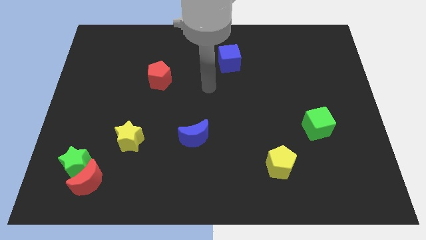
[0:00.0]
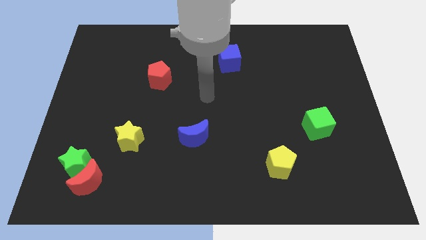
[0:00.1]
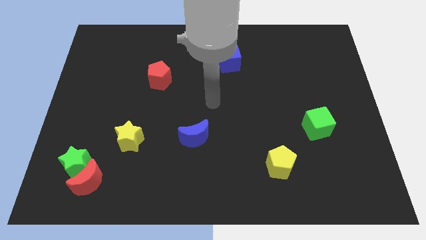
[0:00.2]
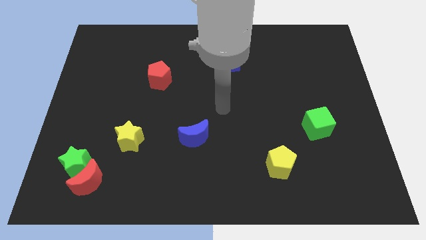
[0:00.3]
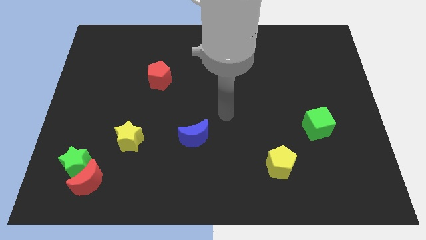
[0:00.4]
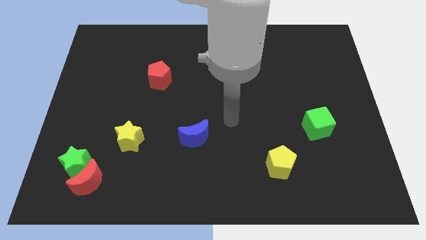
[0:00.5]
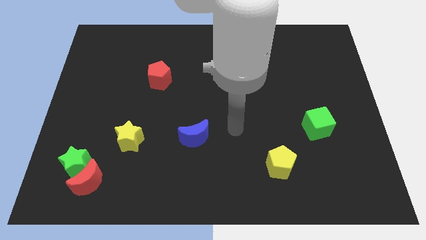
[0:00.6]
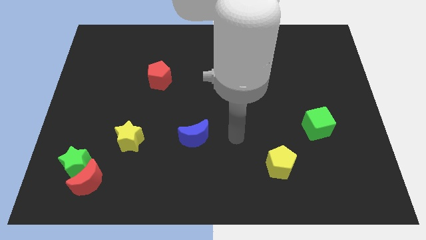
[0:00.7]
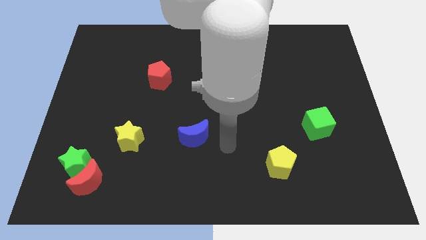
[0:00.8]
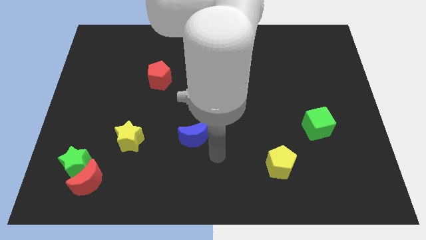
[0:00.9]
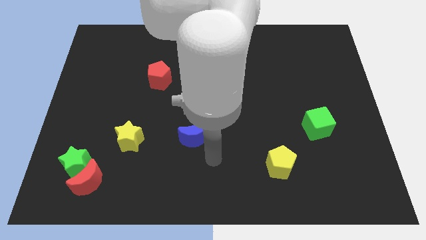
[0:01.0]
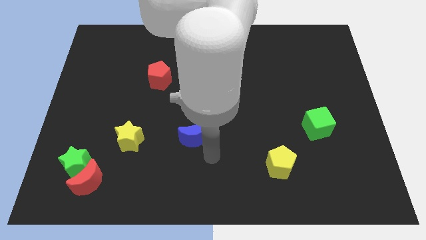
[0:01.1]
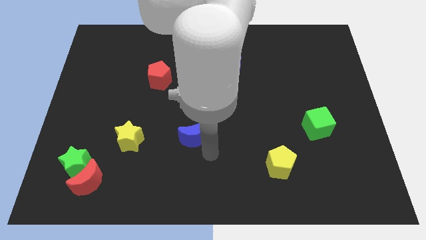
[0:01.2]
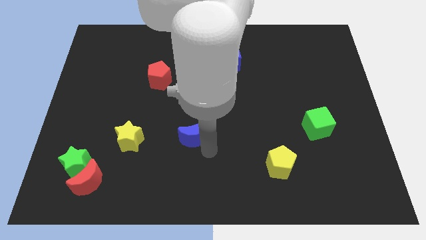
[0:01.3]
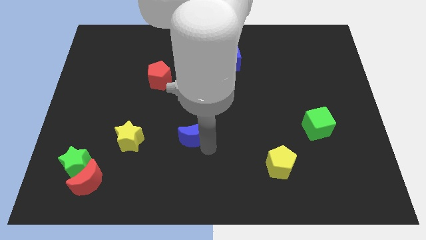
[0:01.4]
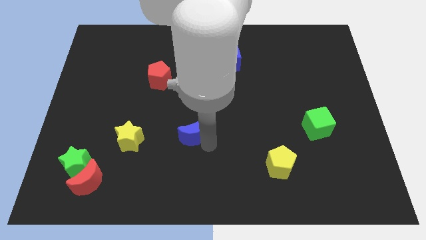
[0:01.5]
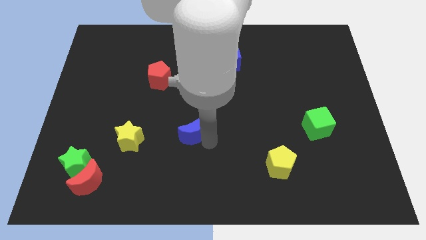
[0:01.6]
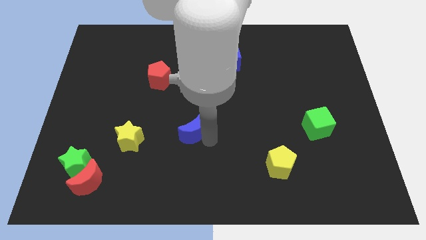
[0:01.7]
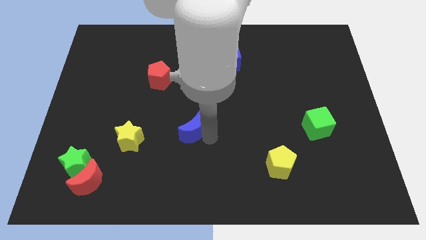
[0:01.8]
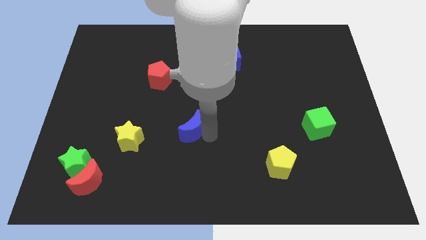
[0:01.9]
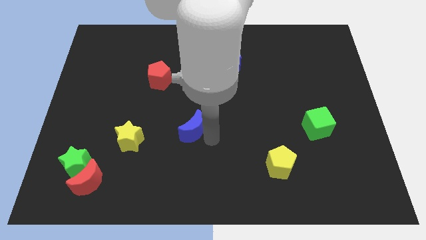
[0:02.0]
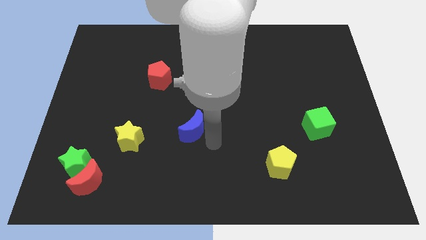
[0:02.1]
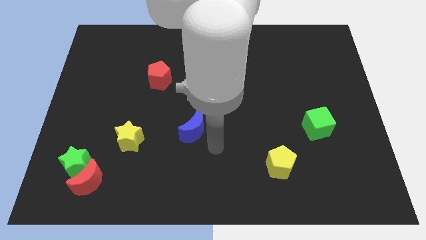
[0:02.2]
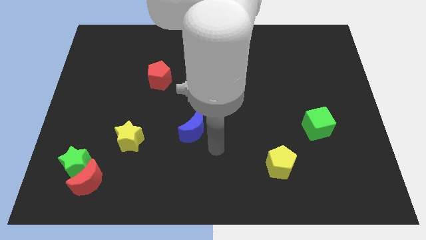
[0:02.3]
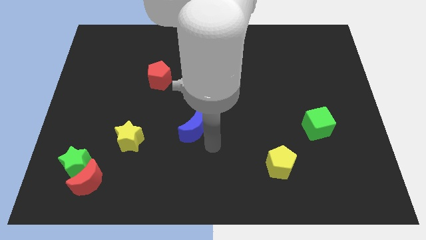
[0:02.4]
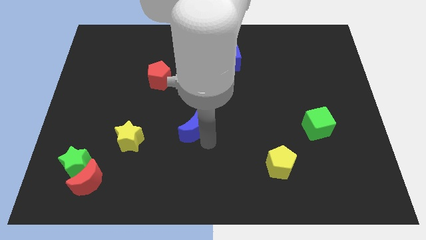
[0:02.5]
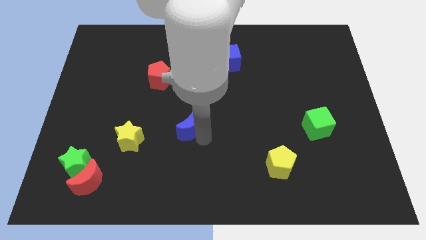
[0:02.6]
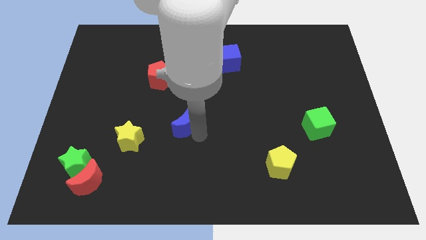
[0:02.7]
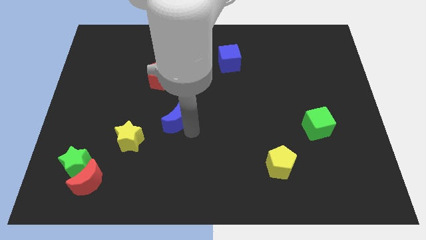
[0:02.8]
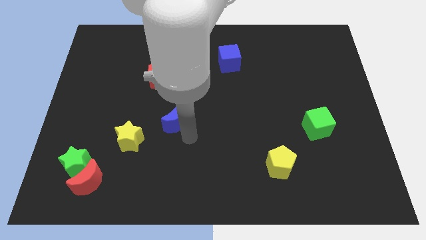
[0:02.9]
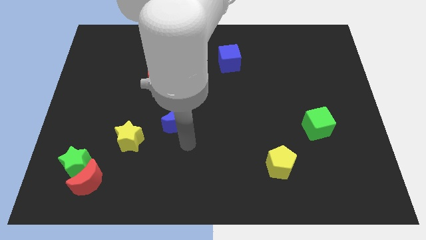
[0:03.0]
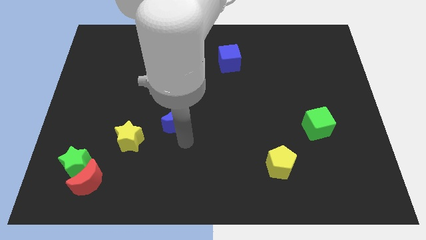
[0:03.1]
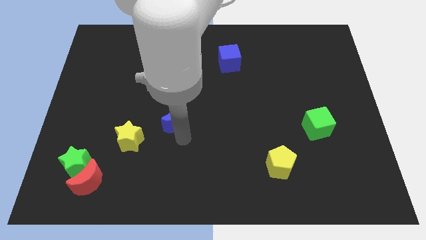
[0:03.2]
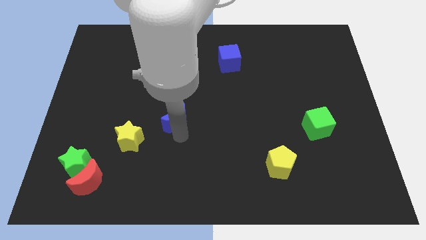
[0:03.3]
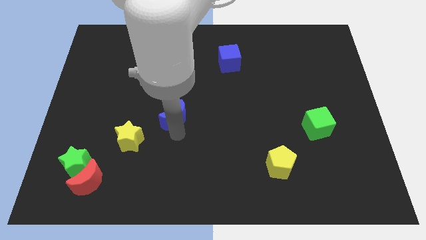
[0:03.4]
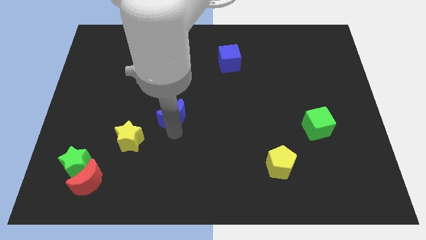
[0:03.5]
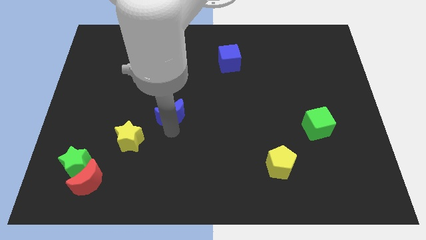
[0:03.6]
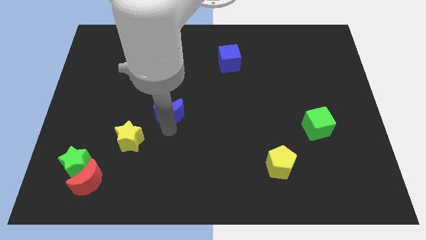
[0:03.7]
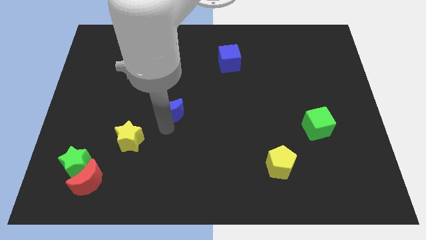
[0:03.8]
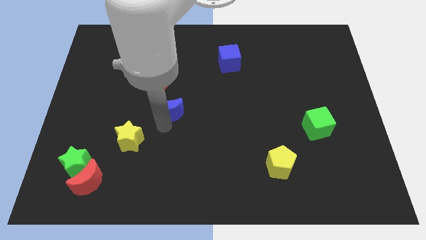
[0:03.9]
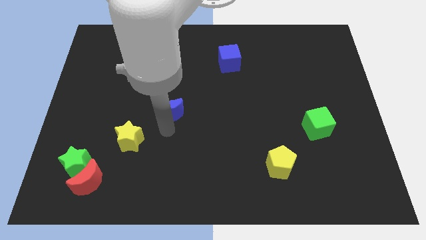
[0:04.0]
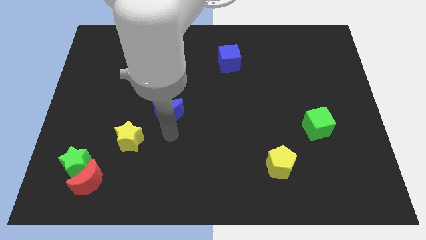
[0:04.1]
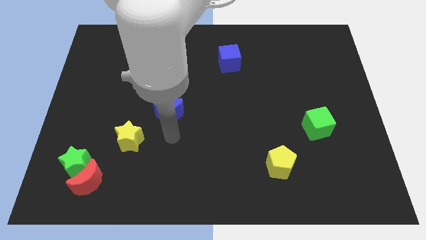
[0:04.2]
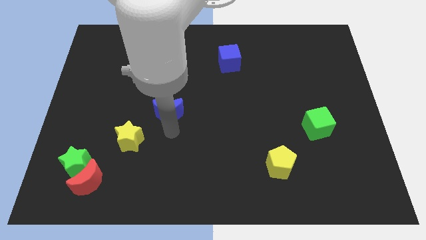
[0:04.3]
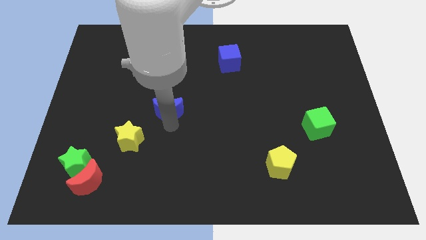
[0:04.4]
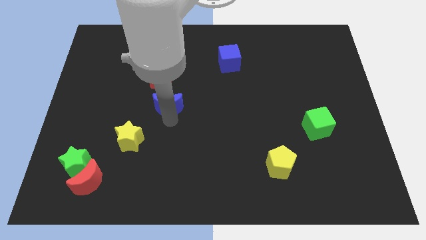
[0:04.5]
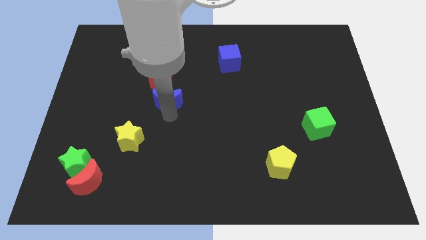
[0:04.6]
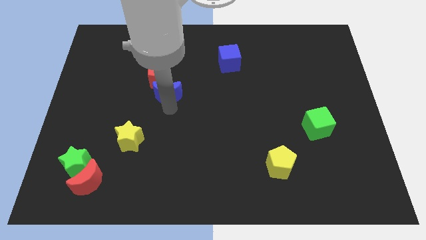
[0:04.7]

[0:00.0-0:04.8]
move the blue moon towards the red pentagon

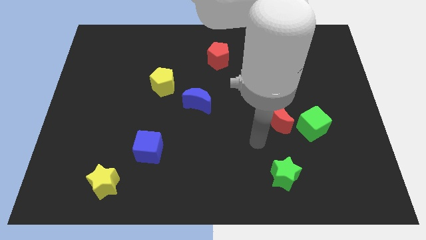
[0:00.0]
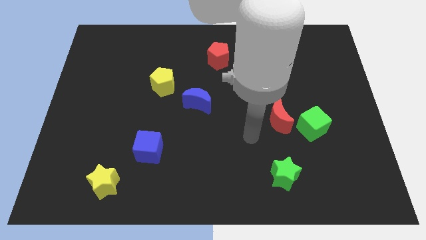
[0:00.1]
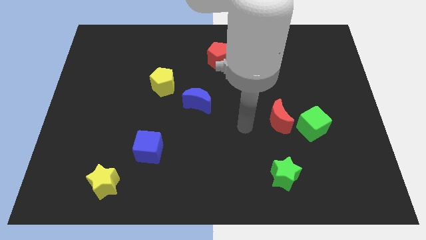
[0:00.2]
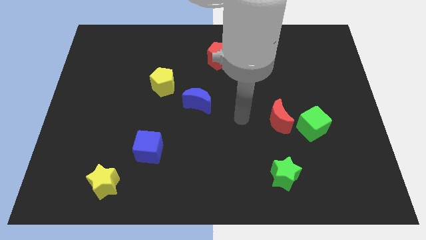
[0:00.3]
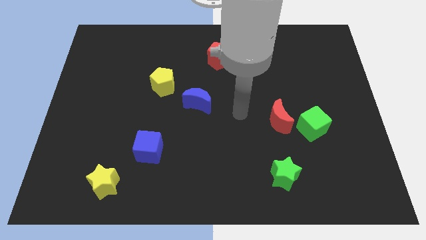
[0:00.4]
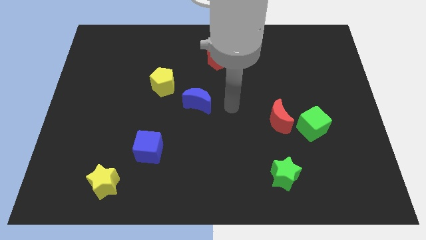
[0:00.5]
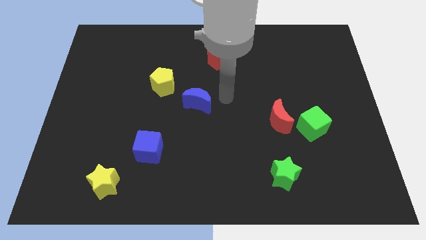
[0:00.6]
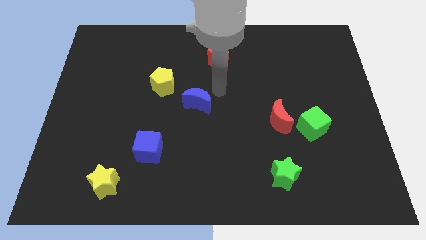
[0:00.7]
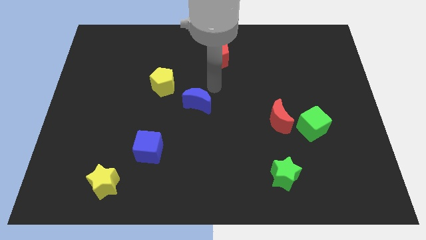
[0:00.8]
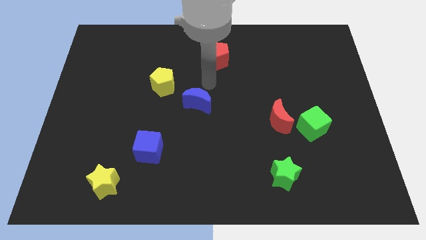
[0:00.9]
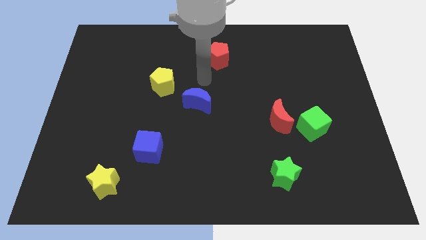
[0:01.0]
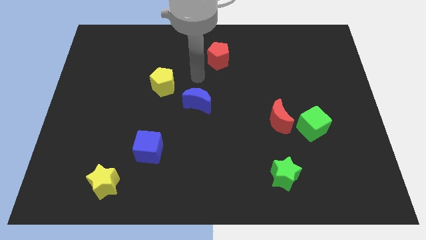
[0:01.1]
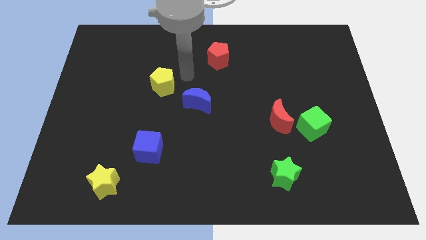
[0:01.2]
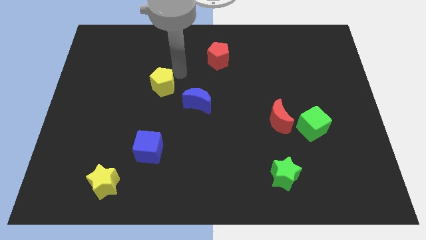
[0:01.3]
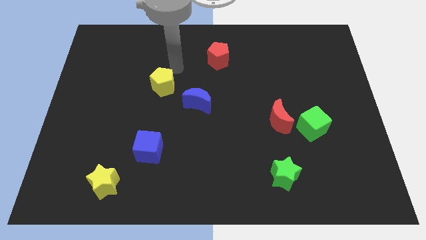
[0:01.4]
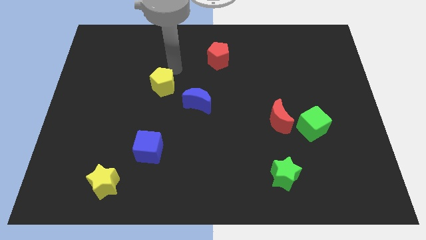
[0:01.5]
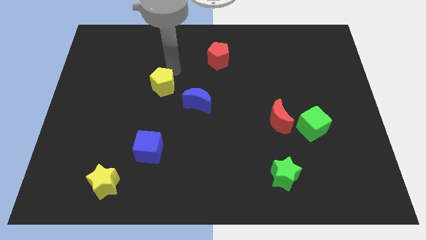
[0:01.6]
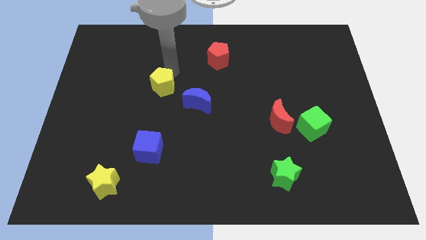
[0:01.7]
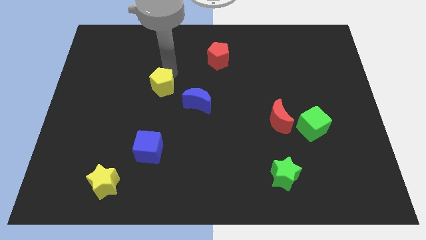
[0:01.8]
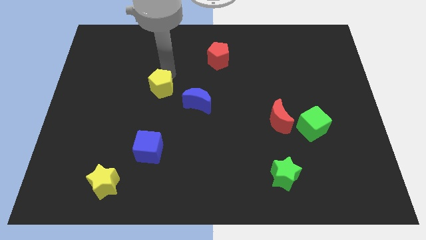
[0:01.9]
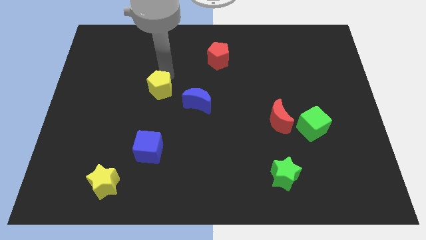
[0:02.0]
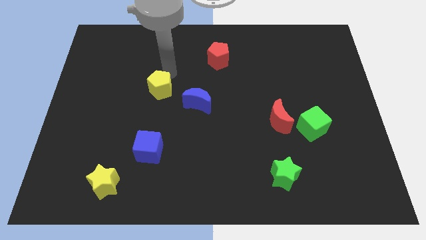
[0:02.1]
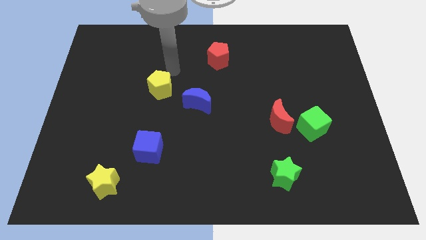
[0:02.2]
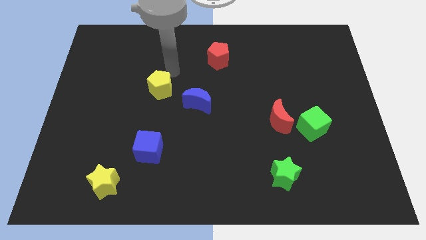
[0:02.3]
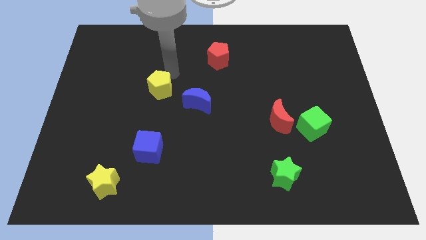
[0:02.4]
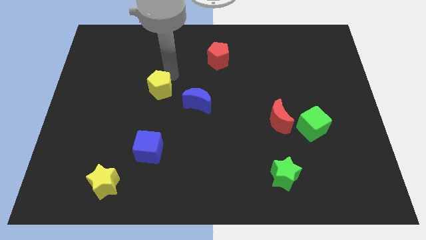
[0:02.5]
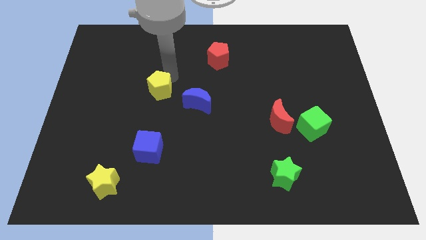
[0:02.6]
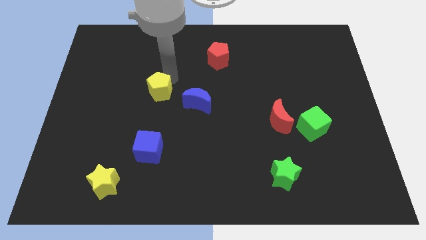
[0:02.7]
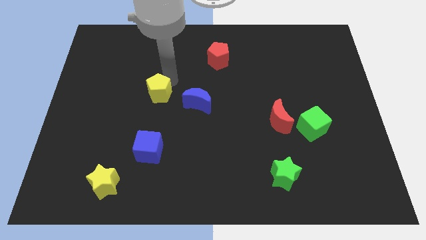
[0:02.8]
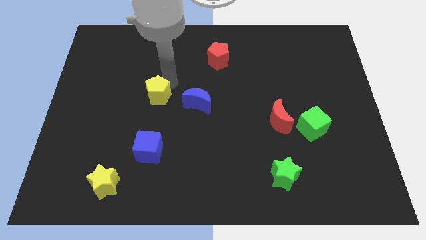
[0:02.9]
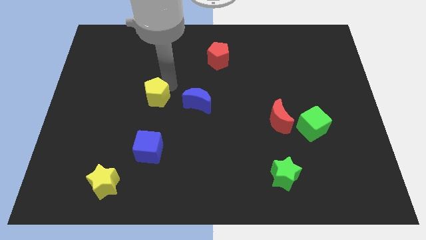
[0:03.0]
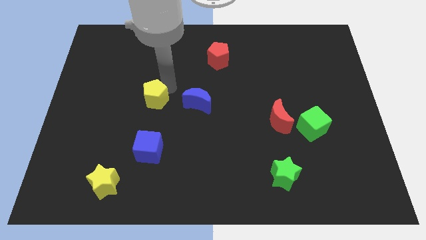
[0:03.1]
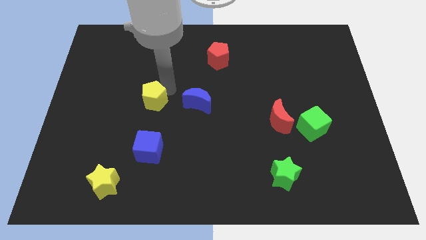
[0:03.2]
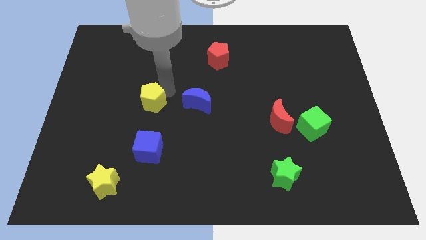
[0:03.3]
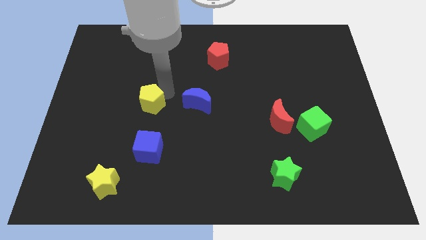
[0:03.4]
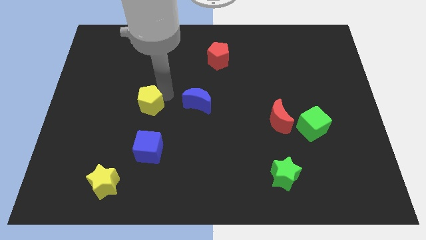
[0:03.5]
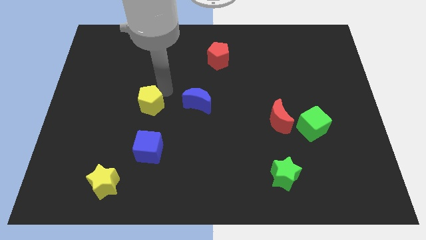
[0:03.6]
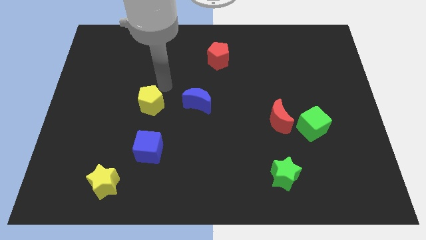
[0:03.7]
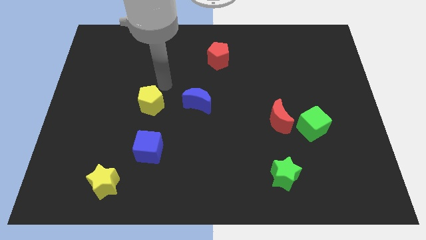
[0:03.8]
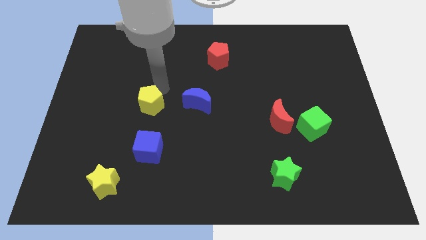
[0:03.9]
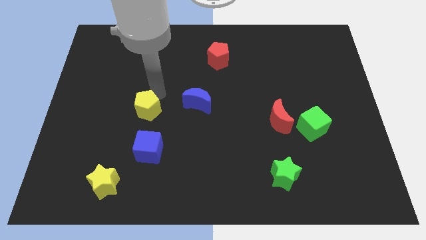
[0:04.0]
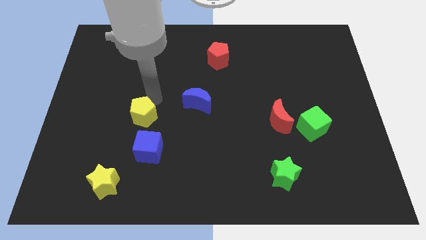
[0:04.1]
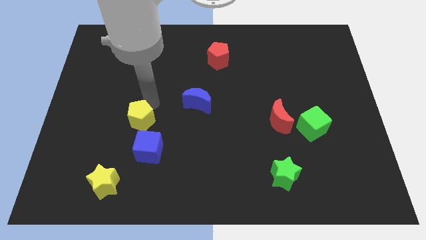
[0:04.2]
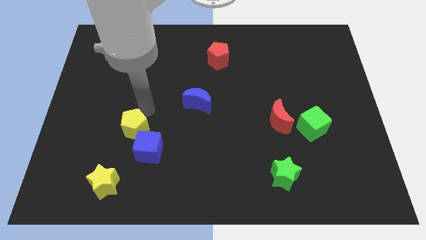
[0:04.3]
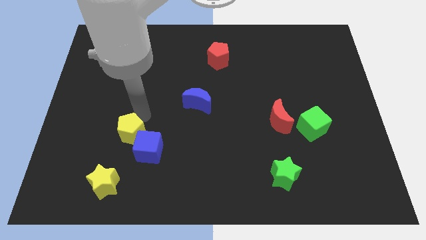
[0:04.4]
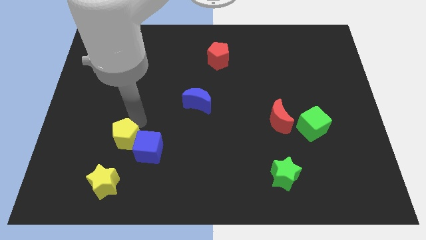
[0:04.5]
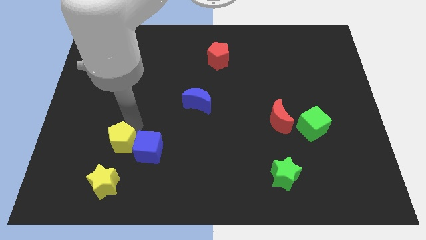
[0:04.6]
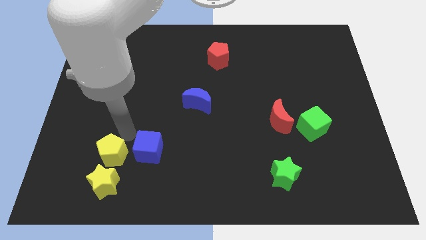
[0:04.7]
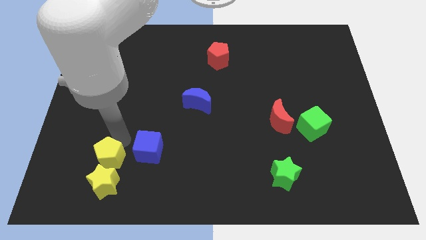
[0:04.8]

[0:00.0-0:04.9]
slide the yellow pentagon towards the yellow star
